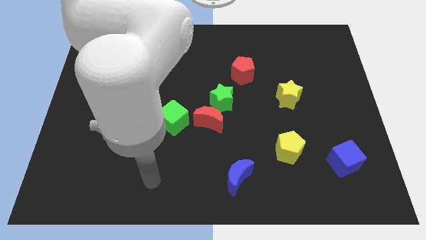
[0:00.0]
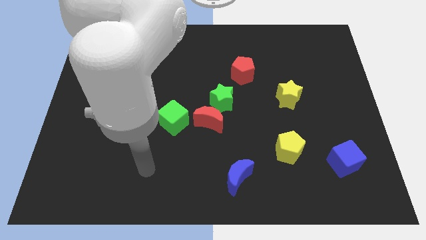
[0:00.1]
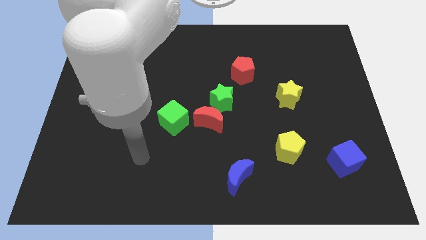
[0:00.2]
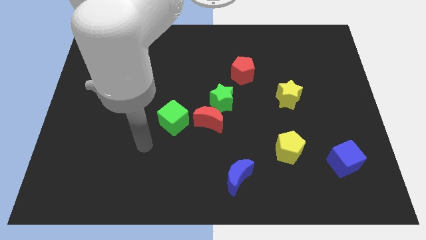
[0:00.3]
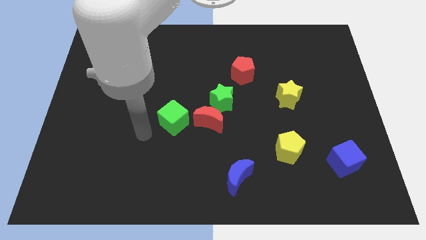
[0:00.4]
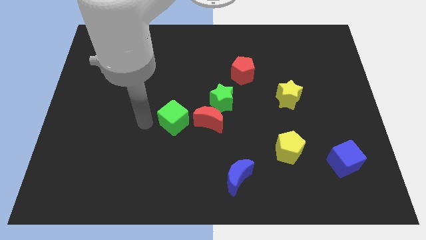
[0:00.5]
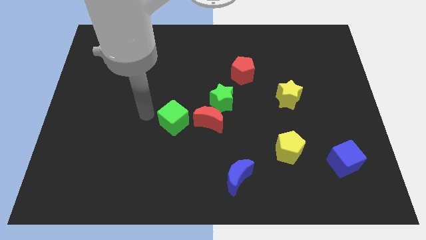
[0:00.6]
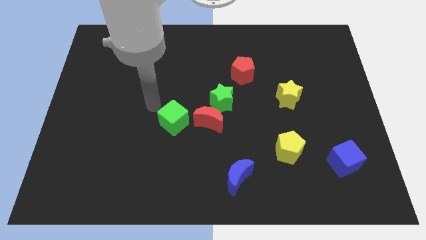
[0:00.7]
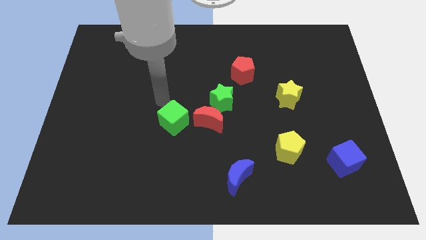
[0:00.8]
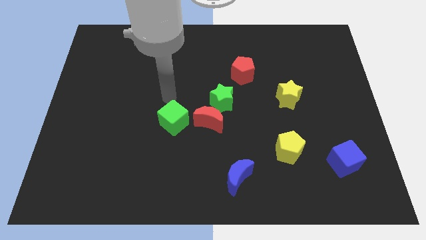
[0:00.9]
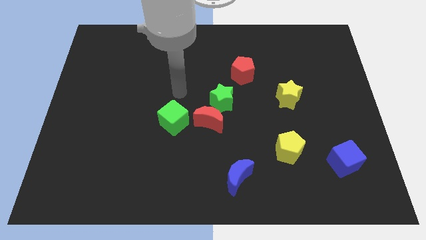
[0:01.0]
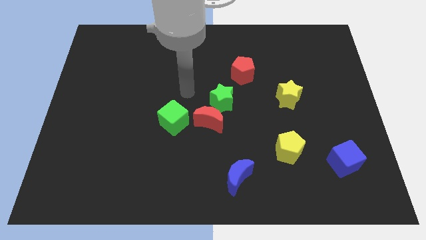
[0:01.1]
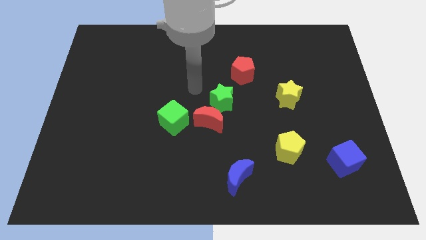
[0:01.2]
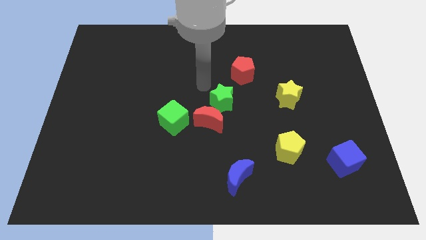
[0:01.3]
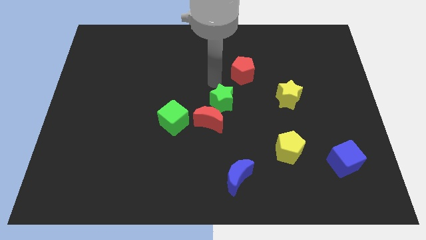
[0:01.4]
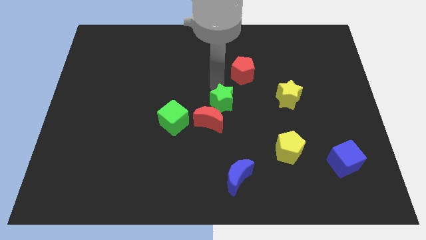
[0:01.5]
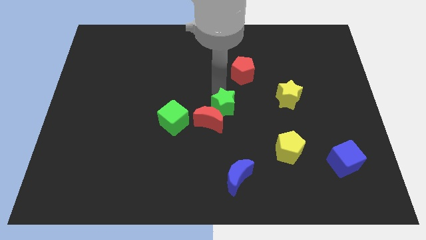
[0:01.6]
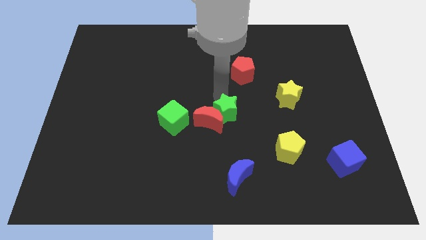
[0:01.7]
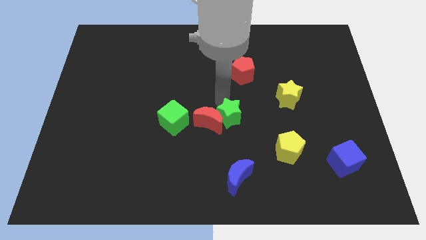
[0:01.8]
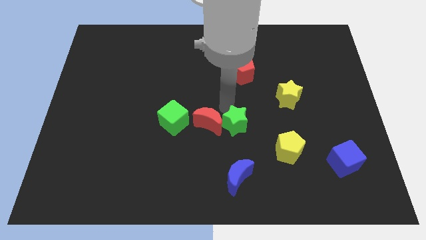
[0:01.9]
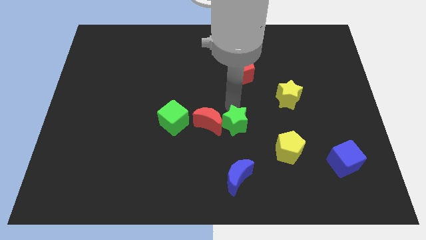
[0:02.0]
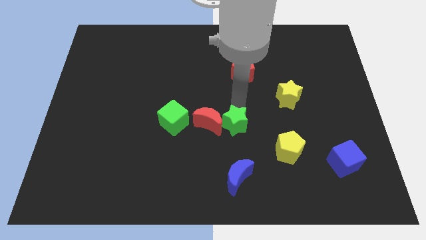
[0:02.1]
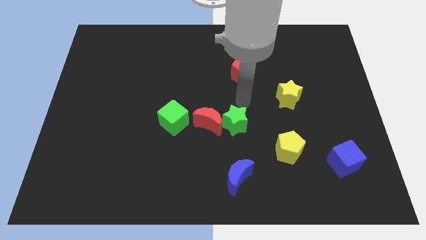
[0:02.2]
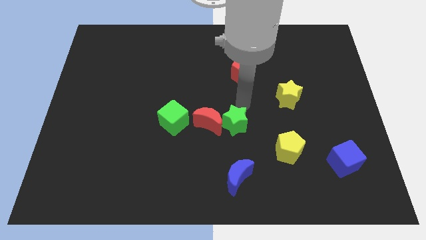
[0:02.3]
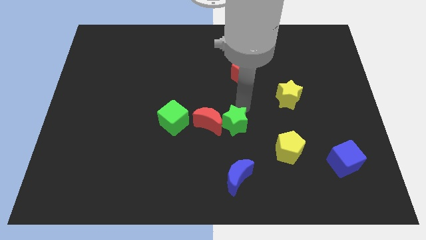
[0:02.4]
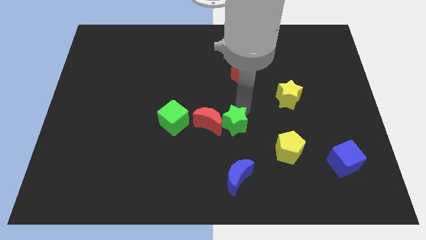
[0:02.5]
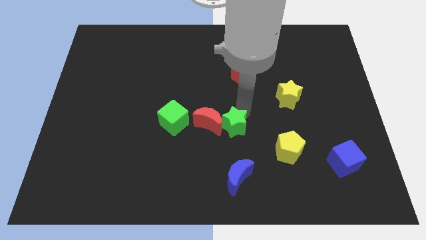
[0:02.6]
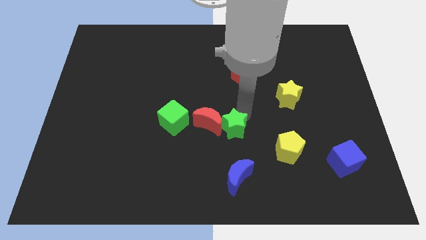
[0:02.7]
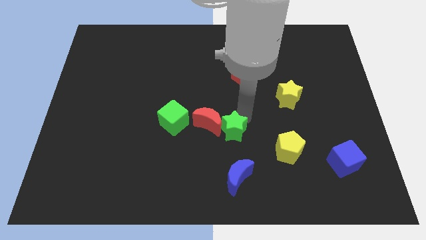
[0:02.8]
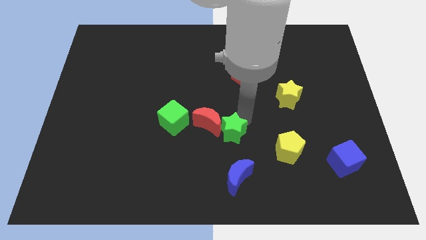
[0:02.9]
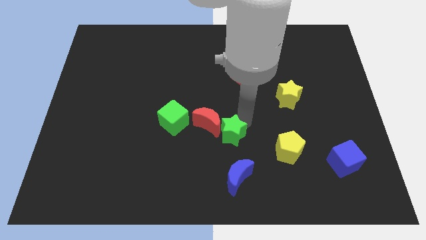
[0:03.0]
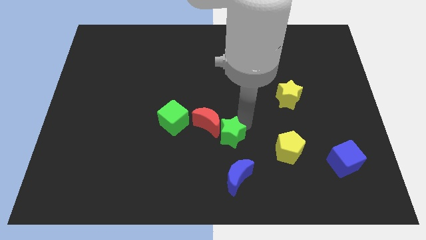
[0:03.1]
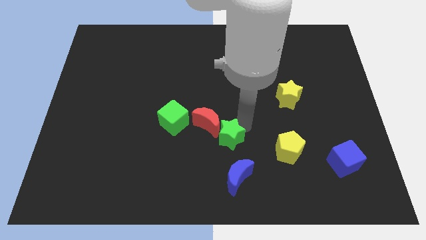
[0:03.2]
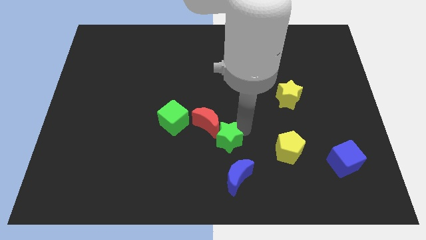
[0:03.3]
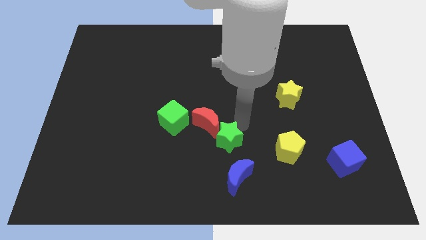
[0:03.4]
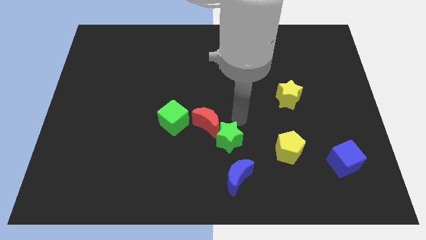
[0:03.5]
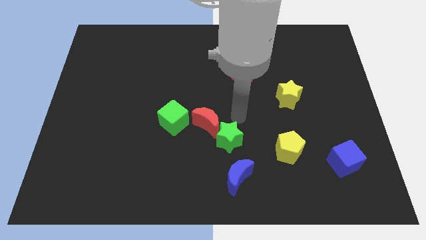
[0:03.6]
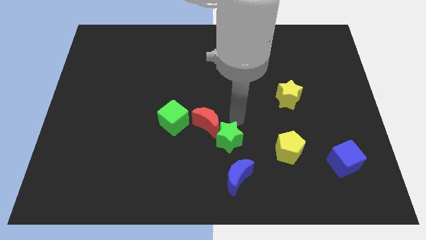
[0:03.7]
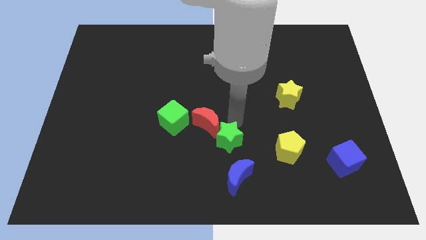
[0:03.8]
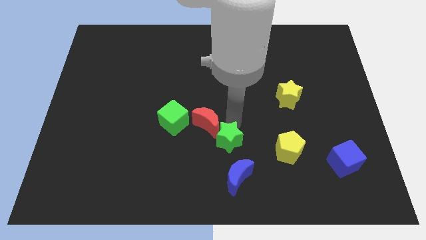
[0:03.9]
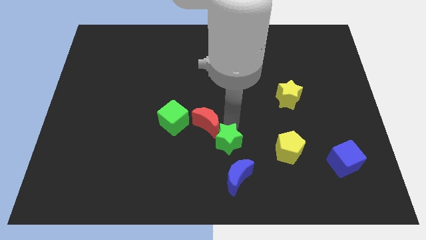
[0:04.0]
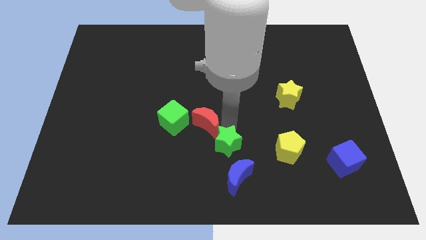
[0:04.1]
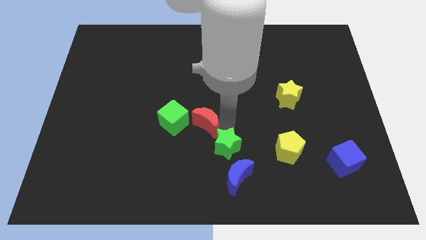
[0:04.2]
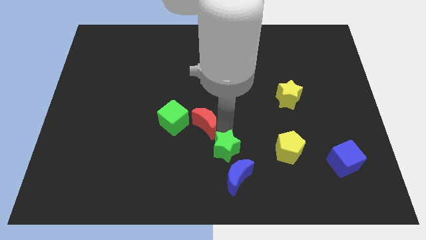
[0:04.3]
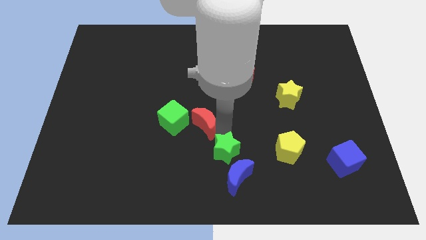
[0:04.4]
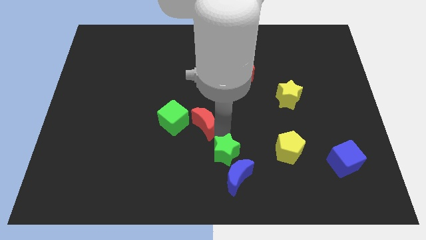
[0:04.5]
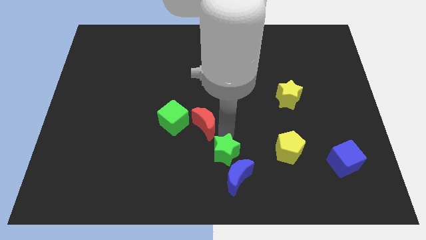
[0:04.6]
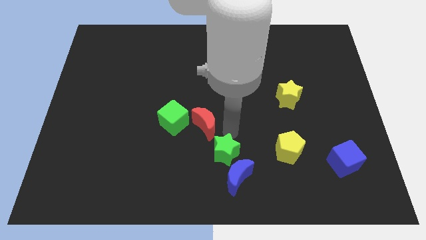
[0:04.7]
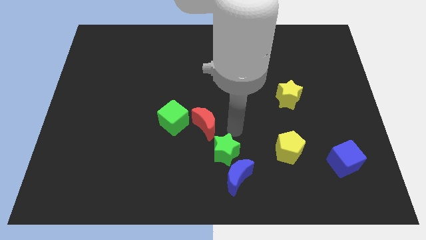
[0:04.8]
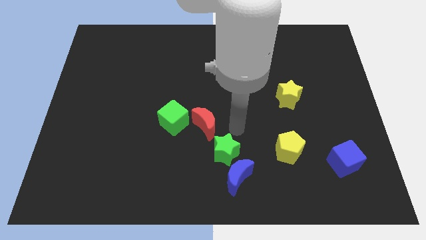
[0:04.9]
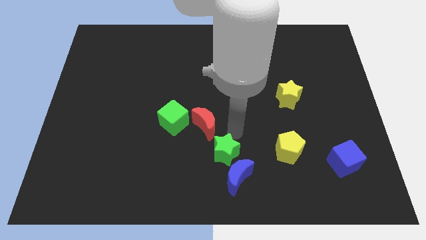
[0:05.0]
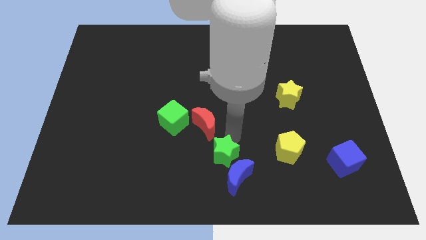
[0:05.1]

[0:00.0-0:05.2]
push the green star to the bottom side

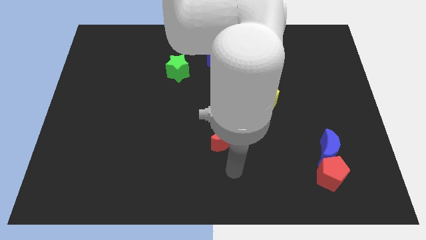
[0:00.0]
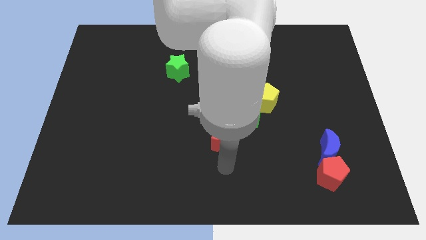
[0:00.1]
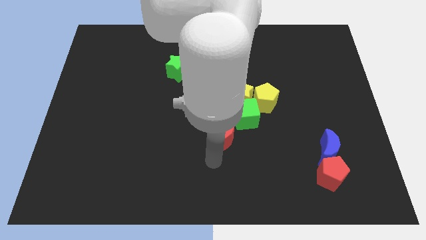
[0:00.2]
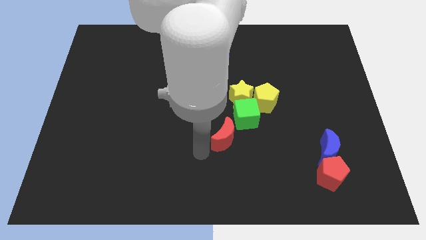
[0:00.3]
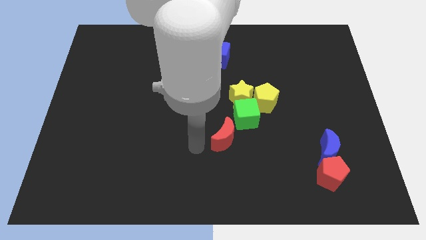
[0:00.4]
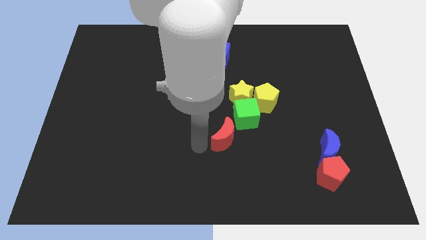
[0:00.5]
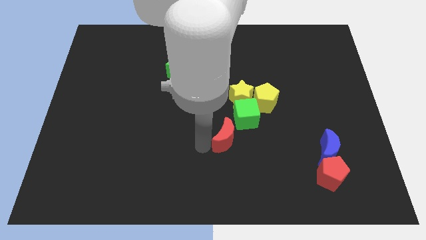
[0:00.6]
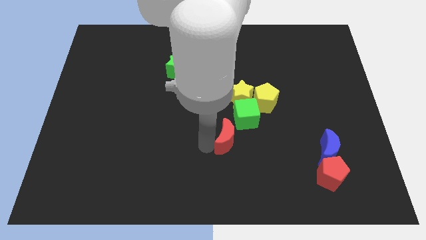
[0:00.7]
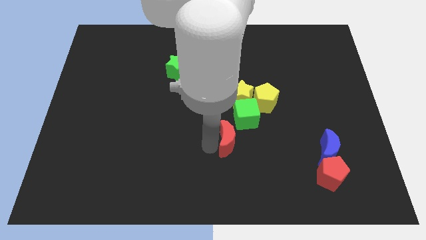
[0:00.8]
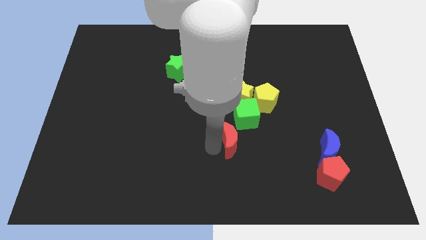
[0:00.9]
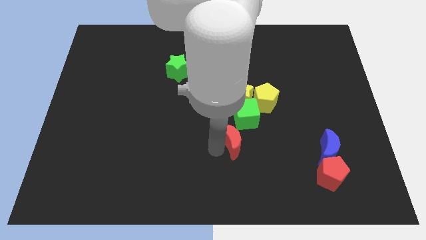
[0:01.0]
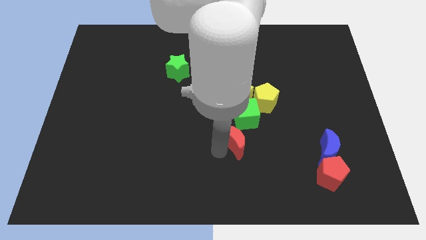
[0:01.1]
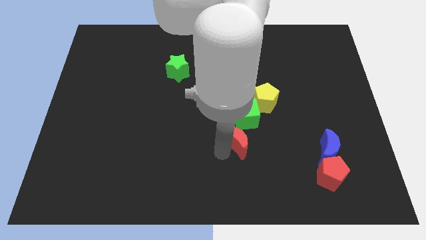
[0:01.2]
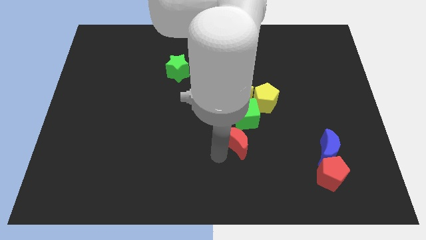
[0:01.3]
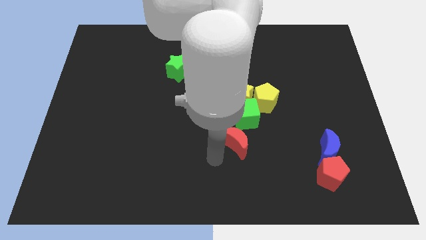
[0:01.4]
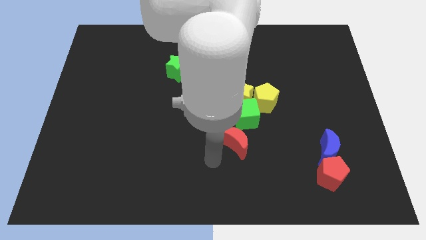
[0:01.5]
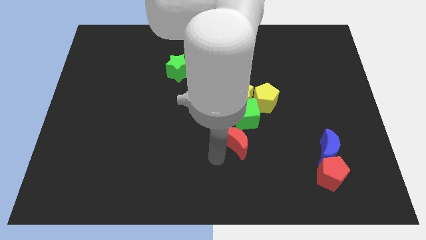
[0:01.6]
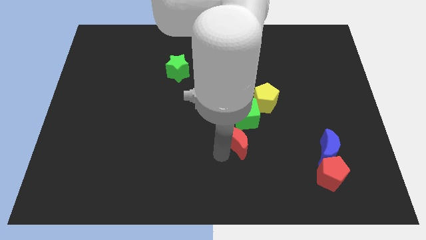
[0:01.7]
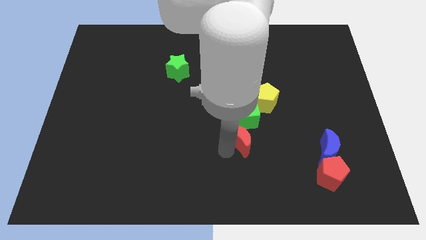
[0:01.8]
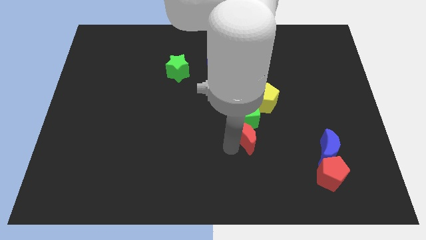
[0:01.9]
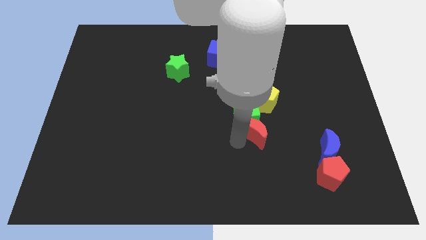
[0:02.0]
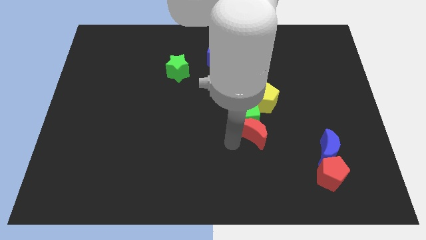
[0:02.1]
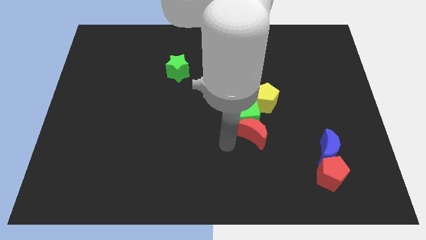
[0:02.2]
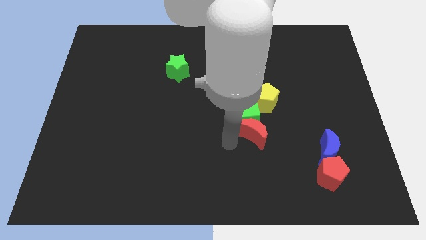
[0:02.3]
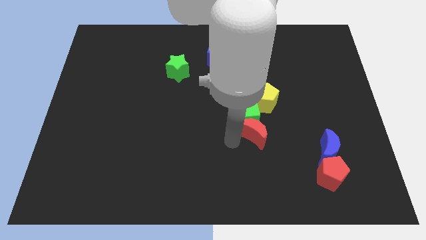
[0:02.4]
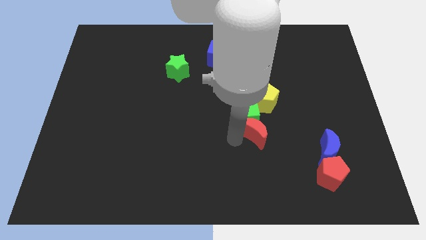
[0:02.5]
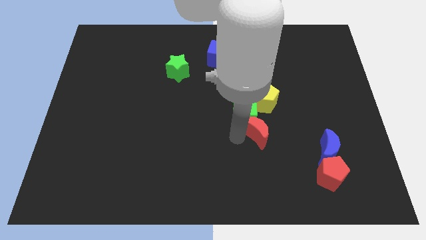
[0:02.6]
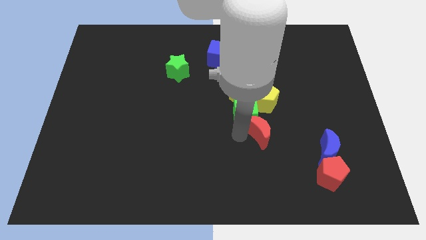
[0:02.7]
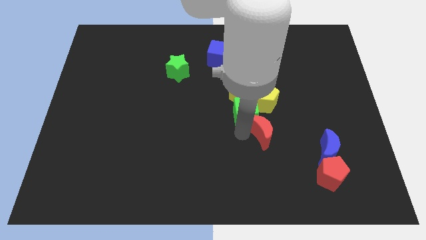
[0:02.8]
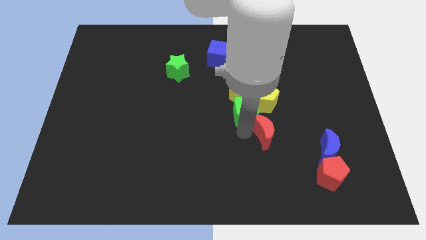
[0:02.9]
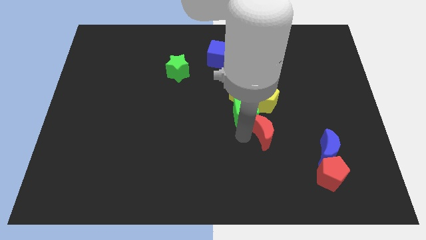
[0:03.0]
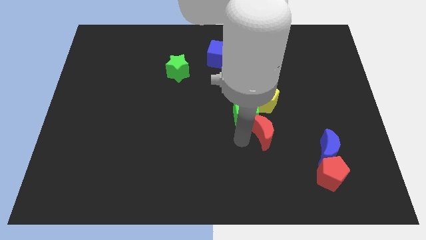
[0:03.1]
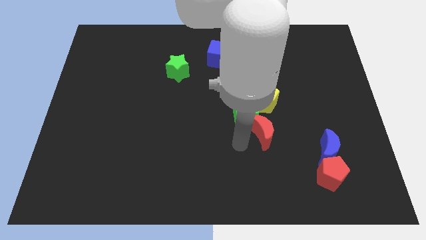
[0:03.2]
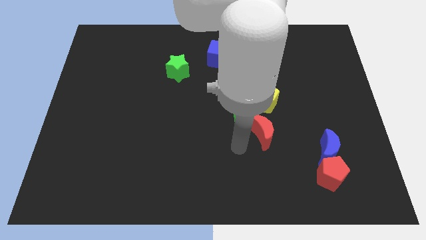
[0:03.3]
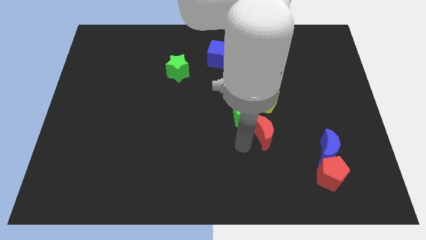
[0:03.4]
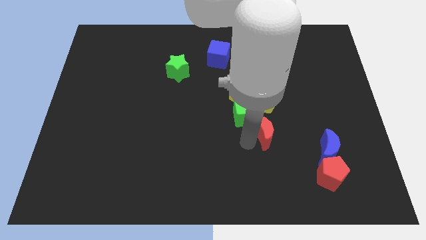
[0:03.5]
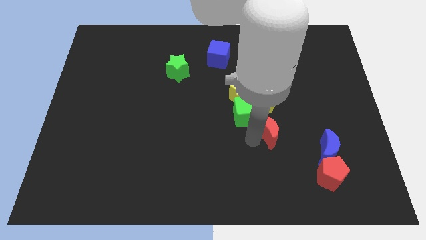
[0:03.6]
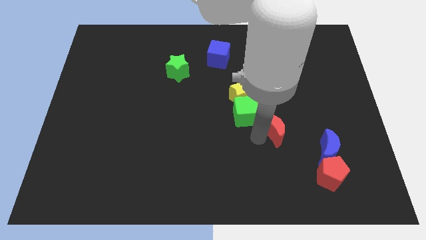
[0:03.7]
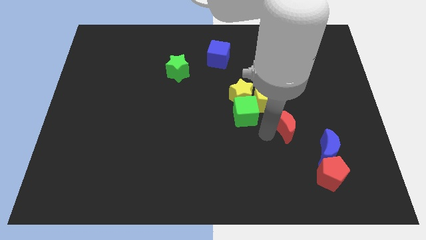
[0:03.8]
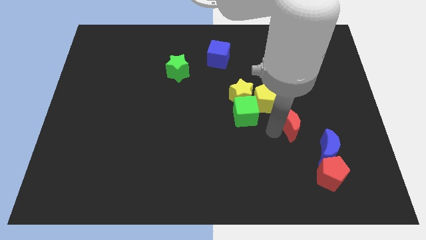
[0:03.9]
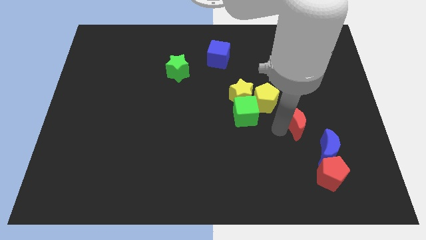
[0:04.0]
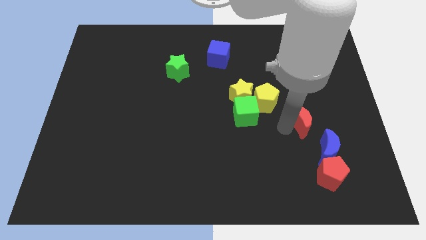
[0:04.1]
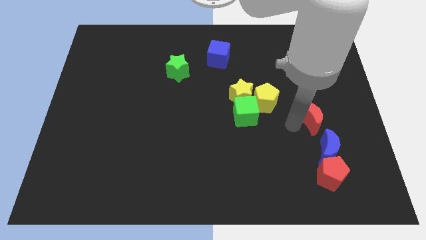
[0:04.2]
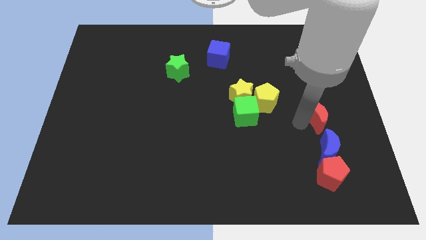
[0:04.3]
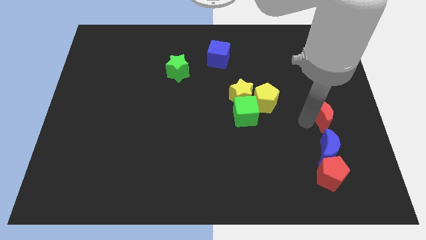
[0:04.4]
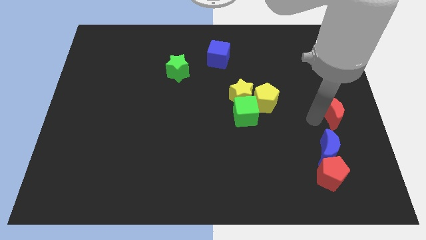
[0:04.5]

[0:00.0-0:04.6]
push the red moon to the right side of the board
